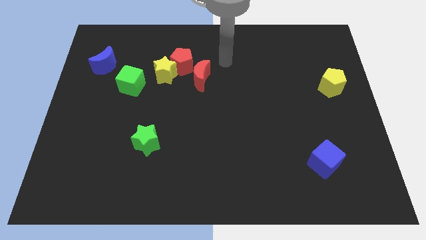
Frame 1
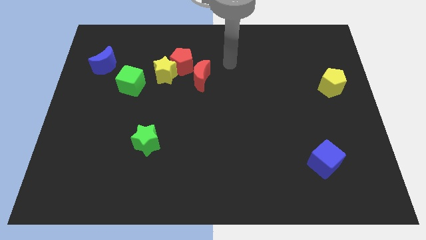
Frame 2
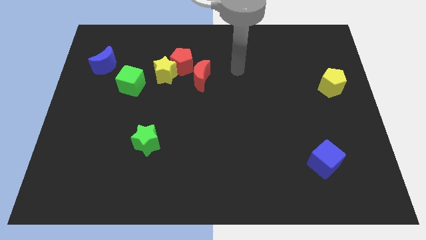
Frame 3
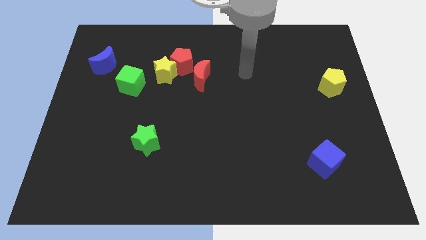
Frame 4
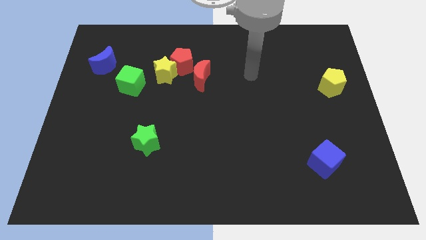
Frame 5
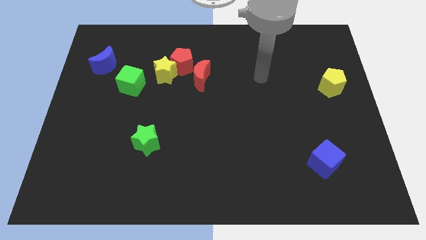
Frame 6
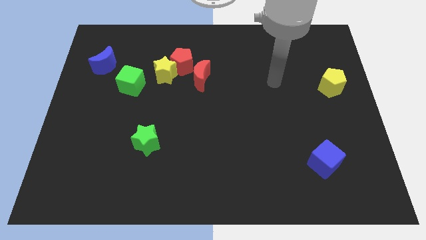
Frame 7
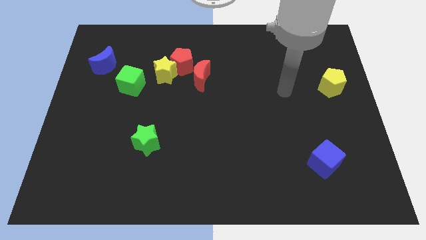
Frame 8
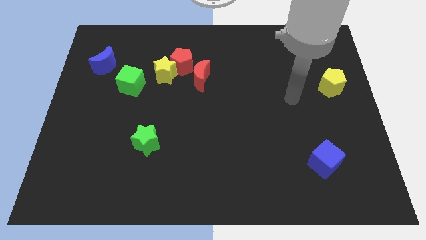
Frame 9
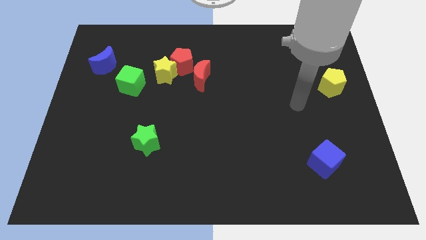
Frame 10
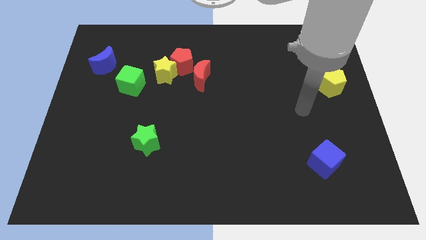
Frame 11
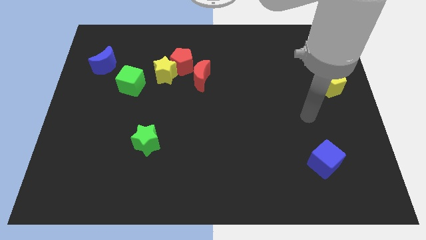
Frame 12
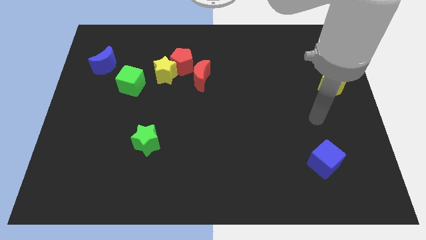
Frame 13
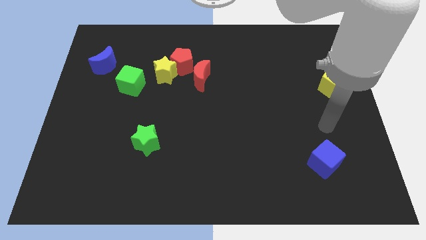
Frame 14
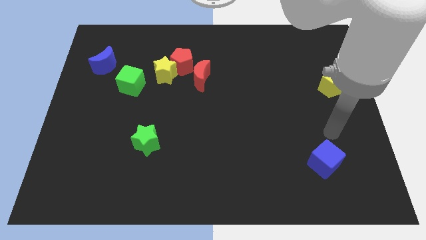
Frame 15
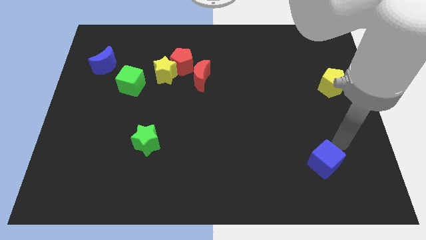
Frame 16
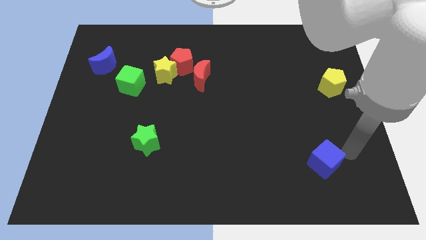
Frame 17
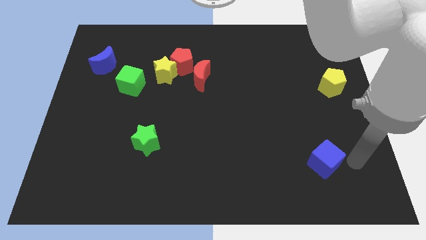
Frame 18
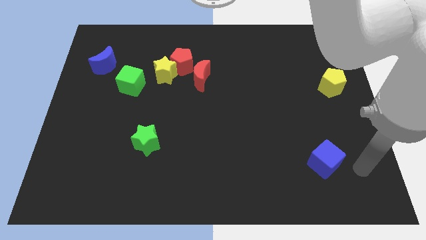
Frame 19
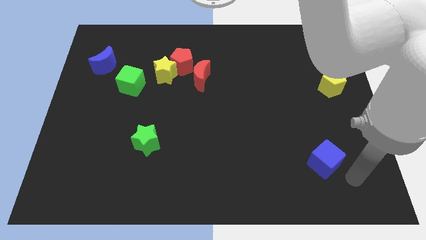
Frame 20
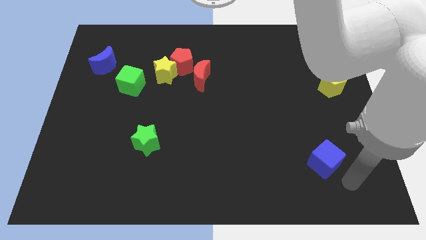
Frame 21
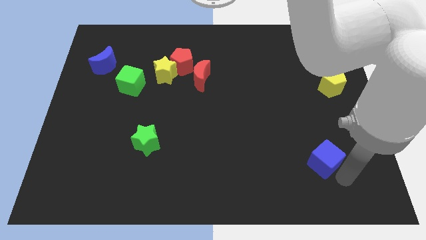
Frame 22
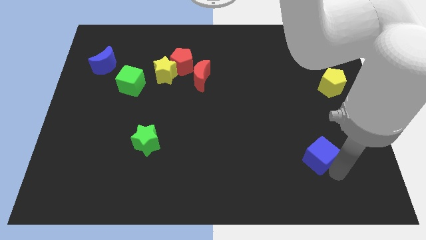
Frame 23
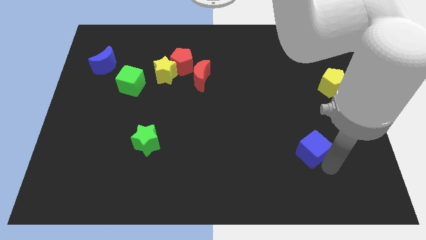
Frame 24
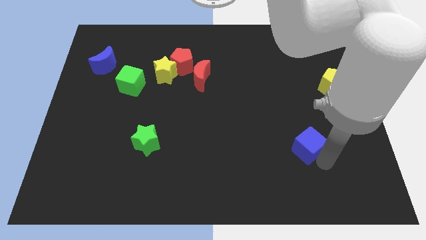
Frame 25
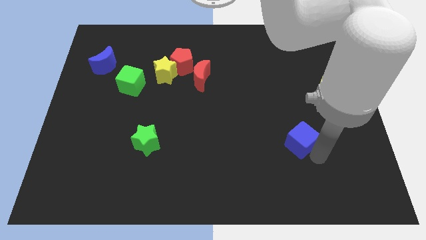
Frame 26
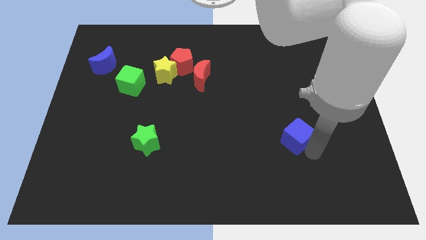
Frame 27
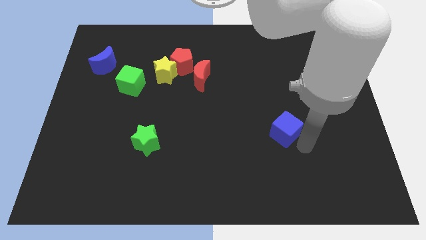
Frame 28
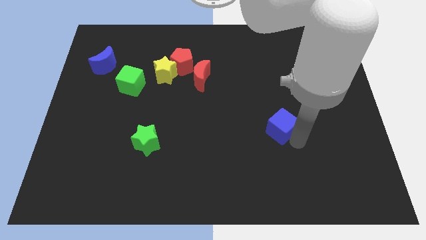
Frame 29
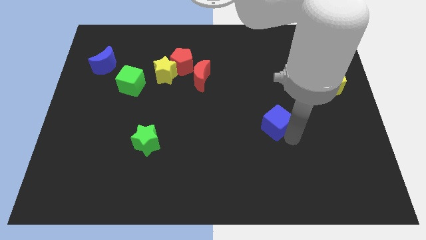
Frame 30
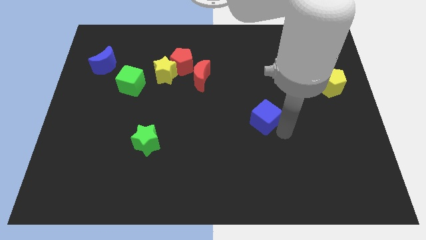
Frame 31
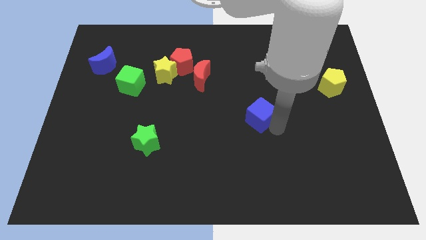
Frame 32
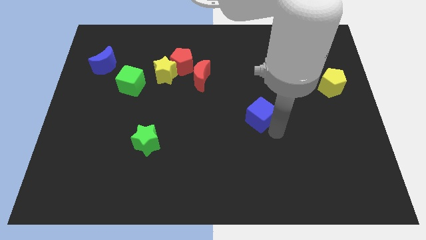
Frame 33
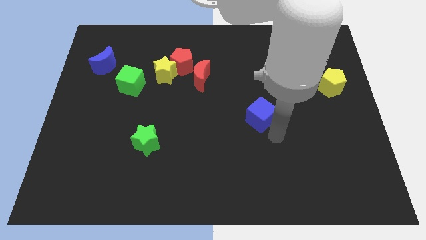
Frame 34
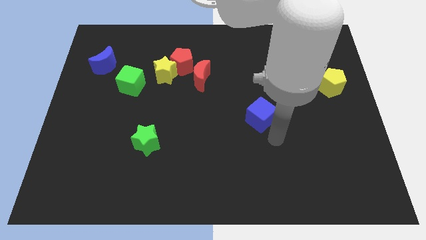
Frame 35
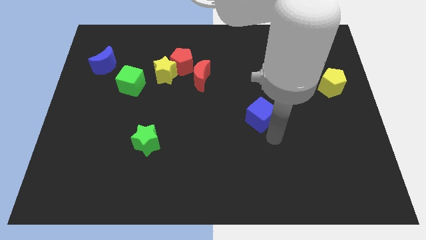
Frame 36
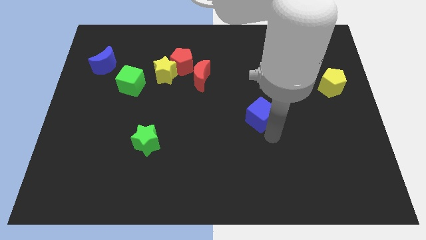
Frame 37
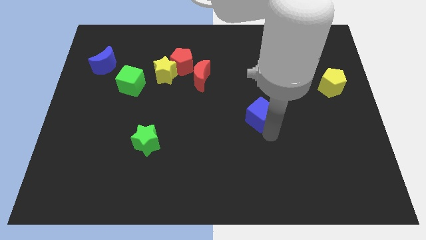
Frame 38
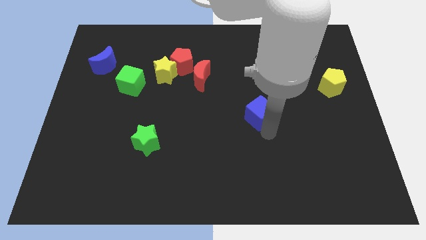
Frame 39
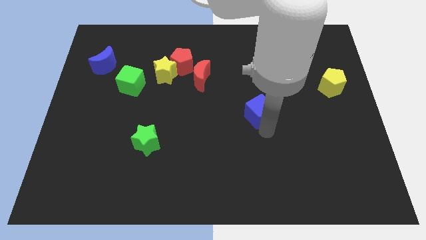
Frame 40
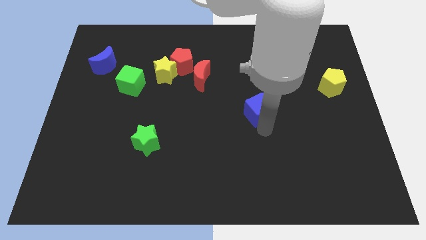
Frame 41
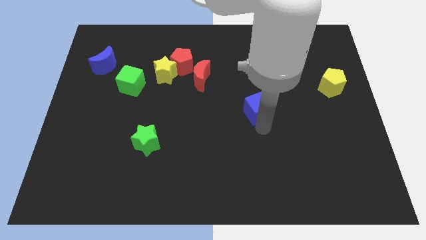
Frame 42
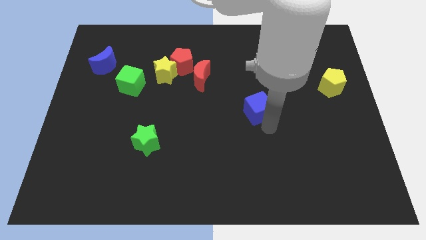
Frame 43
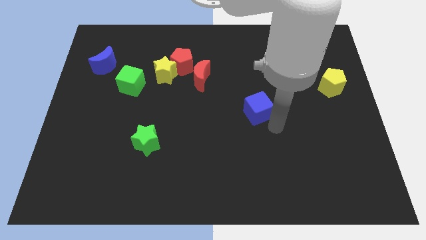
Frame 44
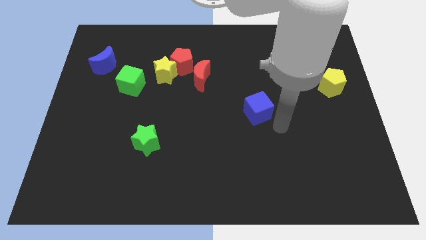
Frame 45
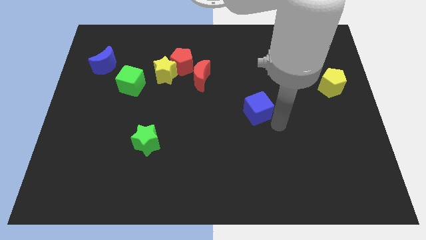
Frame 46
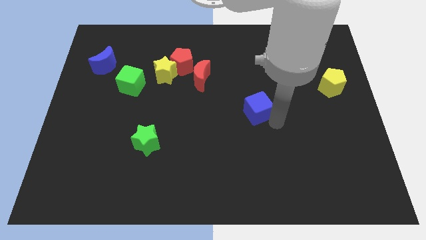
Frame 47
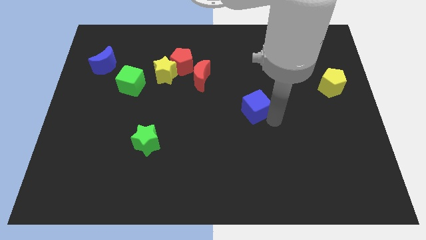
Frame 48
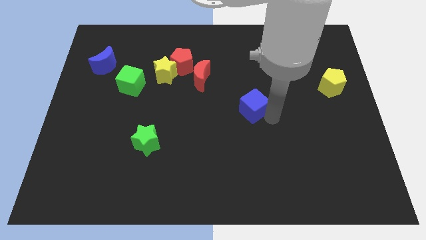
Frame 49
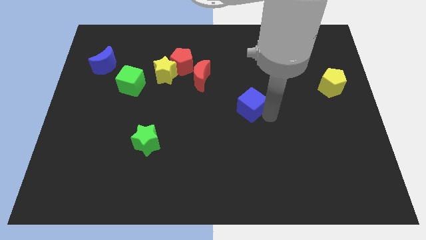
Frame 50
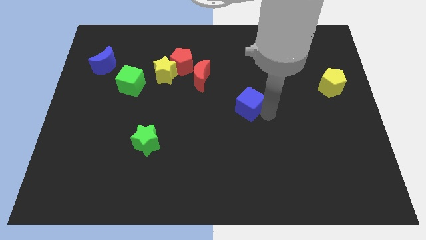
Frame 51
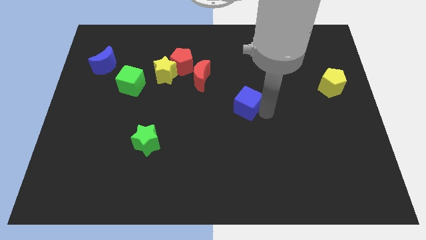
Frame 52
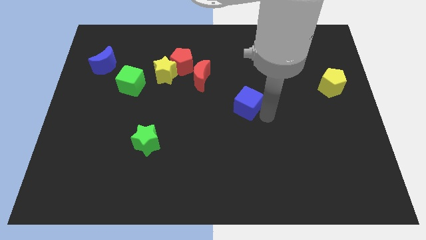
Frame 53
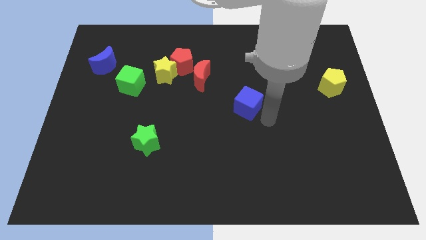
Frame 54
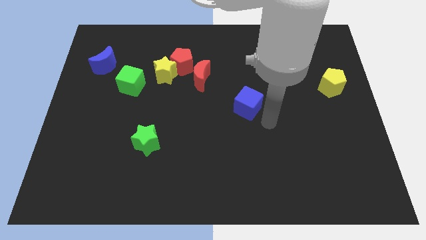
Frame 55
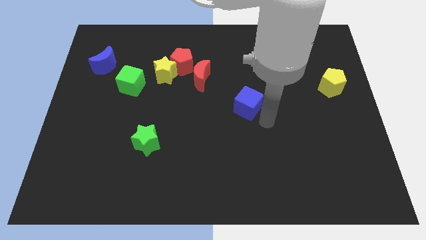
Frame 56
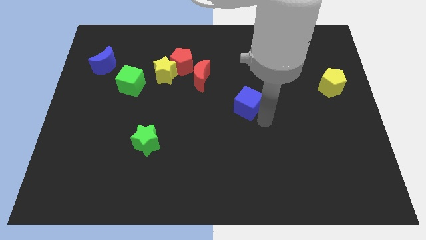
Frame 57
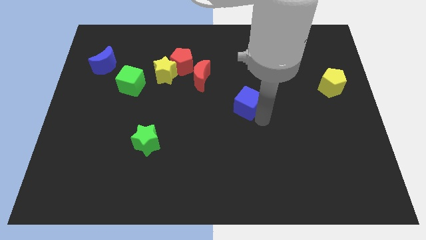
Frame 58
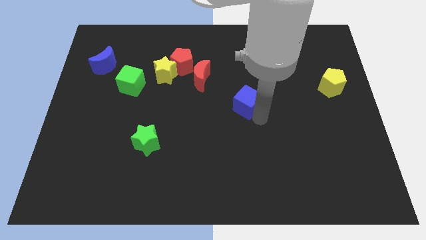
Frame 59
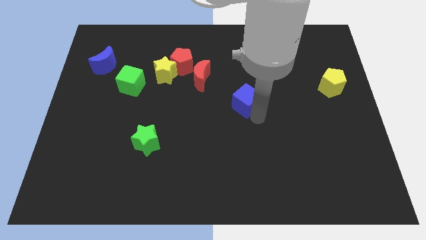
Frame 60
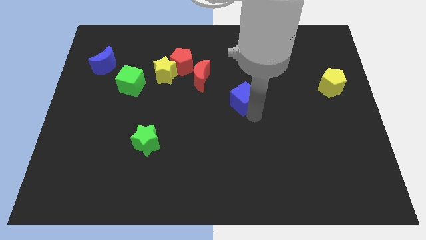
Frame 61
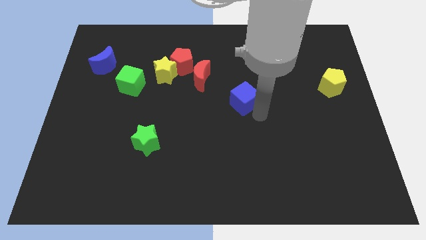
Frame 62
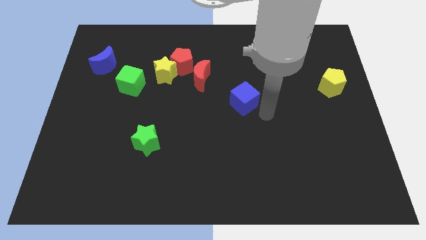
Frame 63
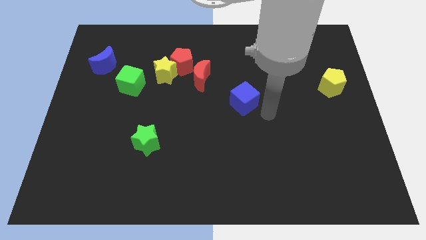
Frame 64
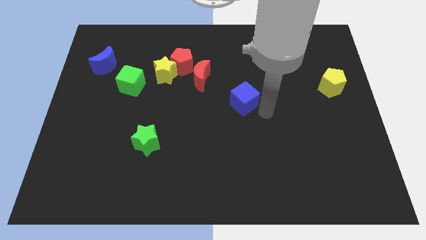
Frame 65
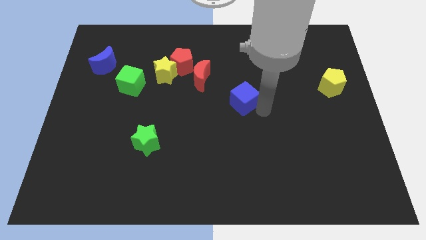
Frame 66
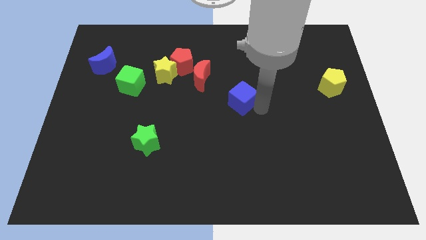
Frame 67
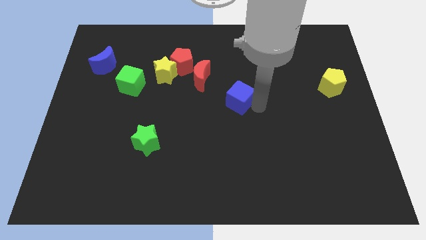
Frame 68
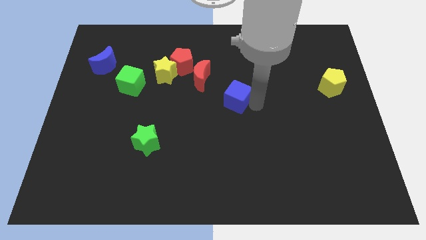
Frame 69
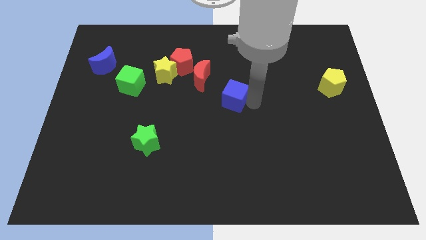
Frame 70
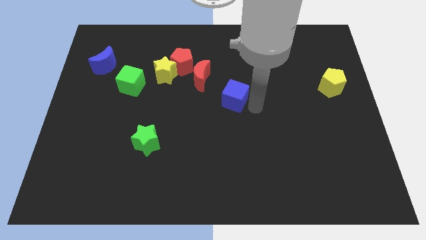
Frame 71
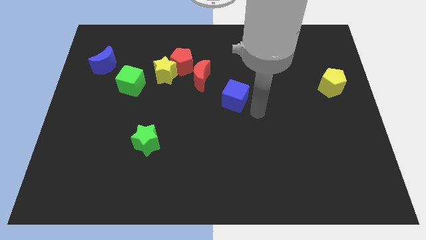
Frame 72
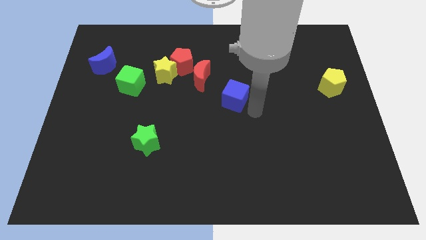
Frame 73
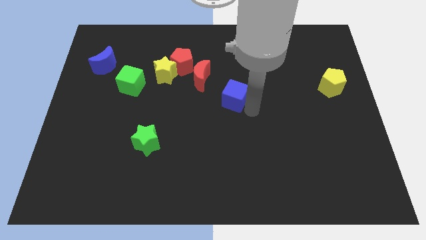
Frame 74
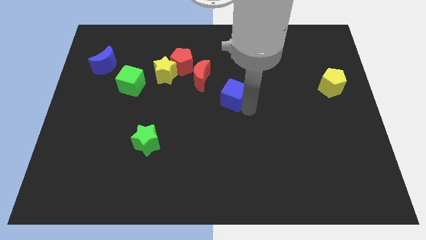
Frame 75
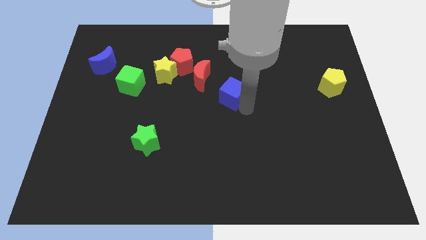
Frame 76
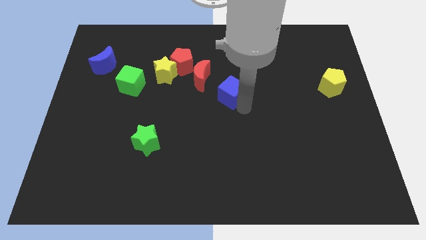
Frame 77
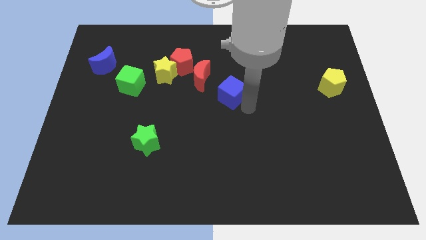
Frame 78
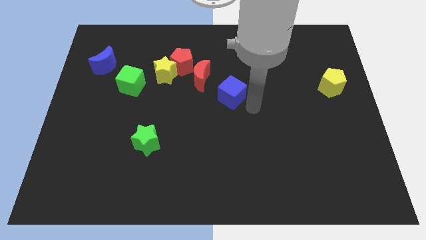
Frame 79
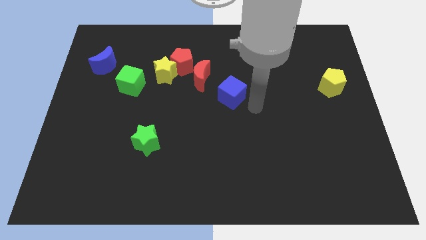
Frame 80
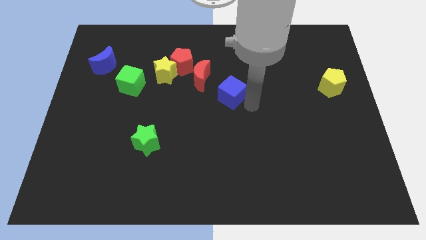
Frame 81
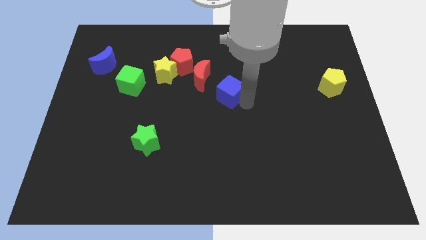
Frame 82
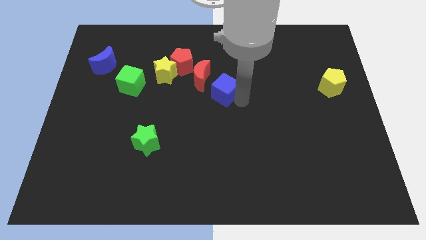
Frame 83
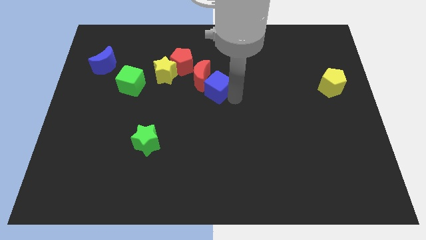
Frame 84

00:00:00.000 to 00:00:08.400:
move the blue cube next to the red moon
